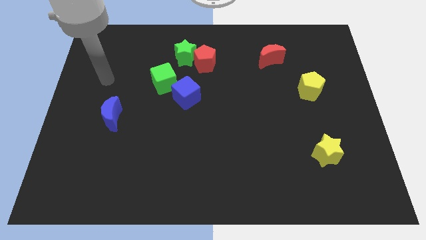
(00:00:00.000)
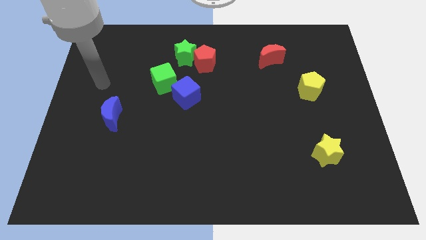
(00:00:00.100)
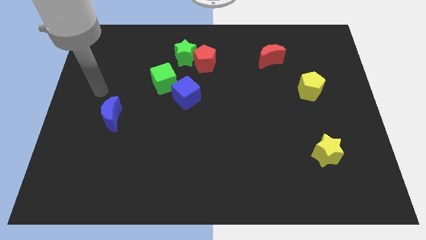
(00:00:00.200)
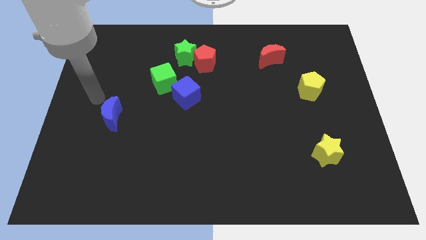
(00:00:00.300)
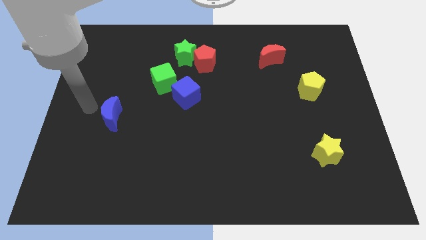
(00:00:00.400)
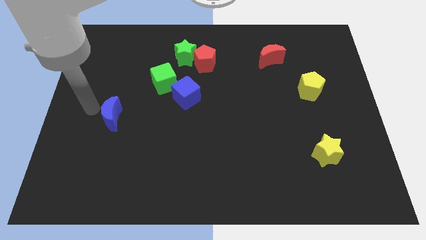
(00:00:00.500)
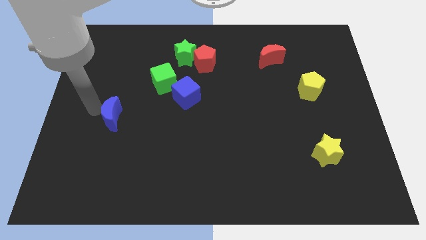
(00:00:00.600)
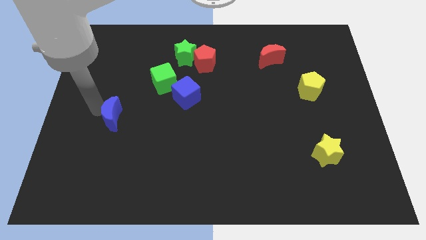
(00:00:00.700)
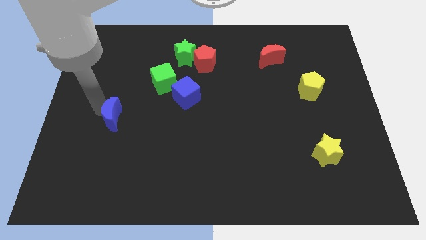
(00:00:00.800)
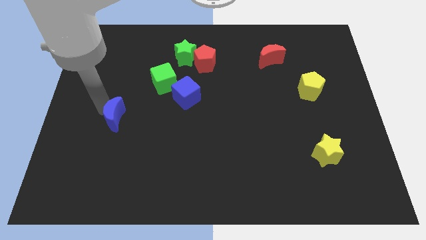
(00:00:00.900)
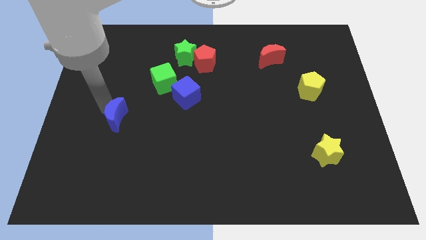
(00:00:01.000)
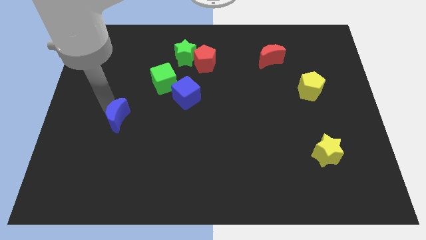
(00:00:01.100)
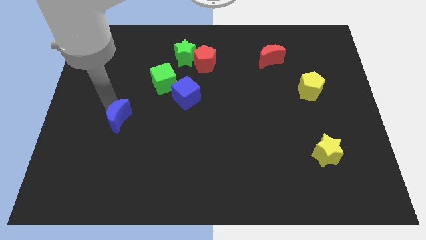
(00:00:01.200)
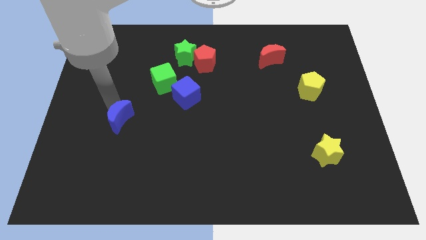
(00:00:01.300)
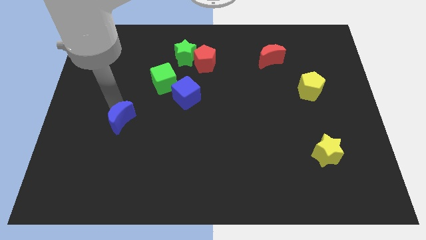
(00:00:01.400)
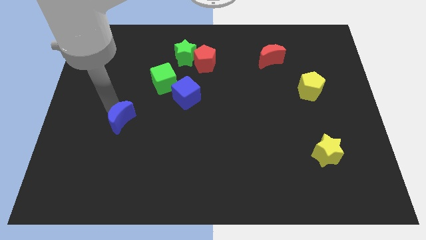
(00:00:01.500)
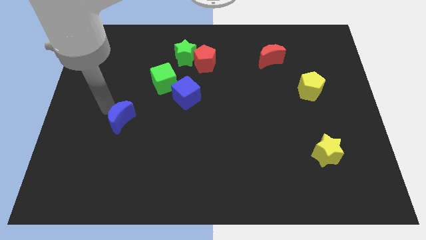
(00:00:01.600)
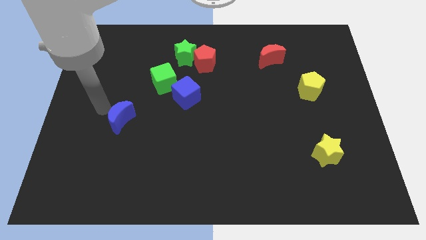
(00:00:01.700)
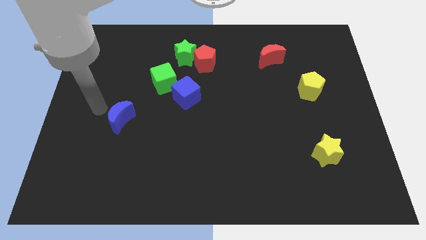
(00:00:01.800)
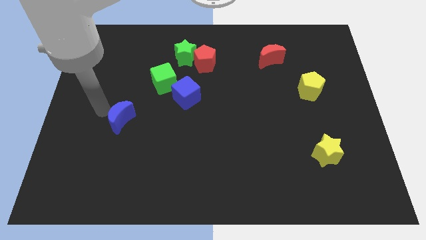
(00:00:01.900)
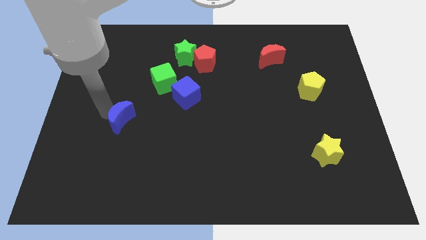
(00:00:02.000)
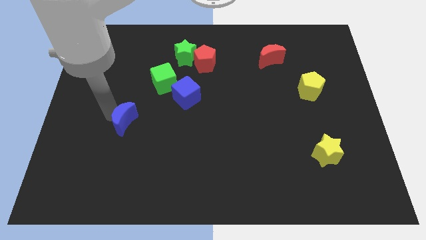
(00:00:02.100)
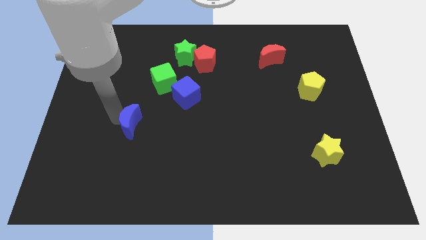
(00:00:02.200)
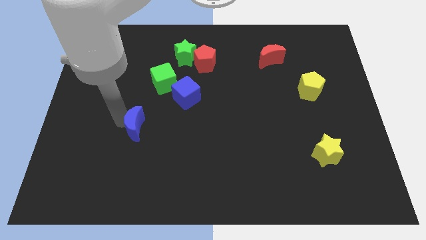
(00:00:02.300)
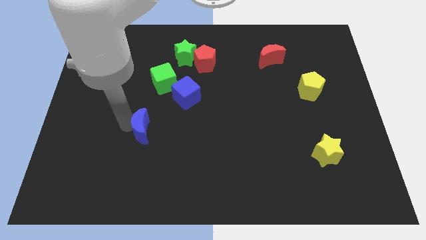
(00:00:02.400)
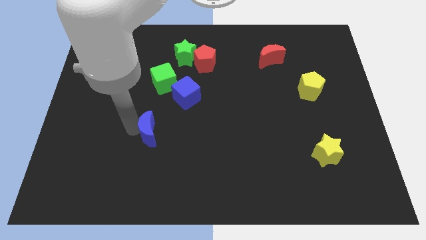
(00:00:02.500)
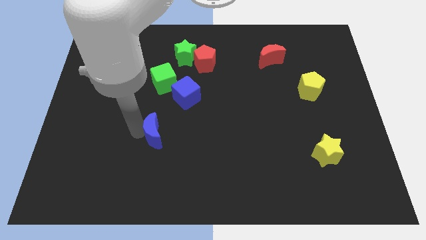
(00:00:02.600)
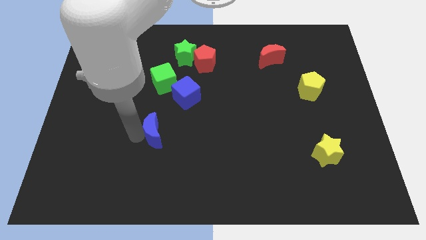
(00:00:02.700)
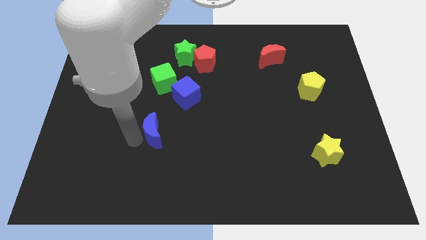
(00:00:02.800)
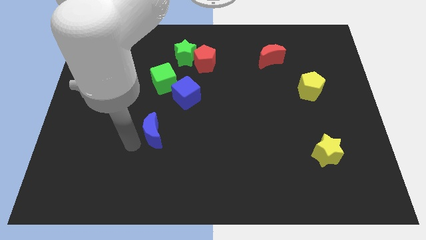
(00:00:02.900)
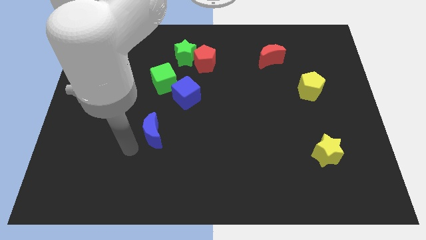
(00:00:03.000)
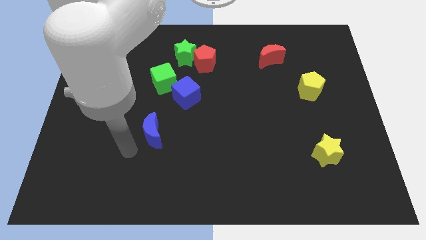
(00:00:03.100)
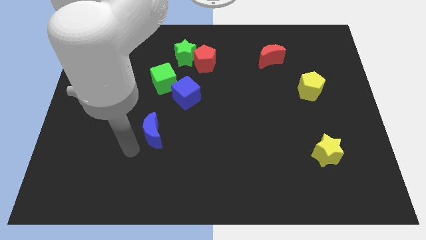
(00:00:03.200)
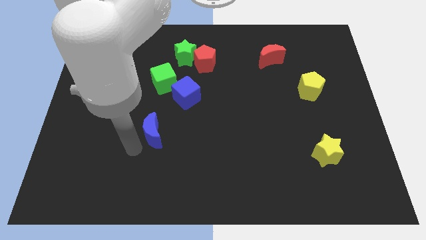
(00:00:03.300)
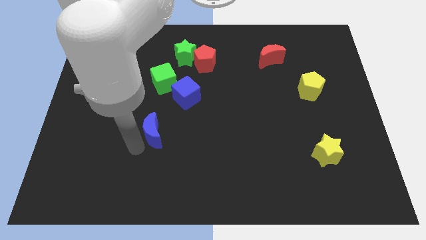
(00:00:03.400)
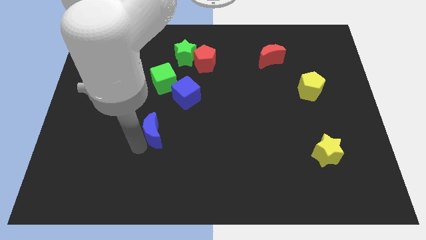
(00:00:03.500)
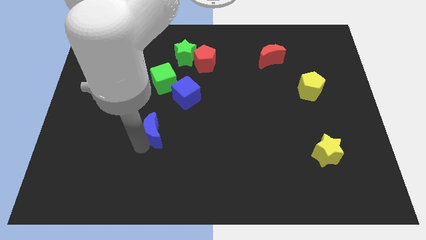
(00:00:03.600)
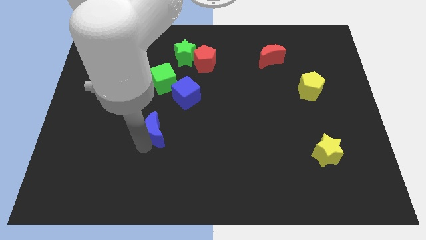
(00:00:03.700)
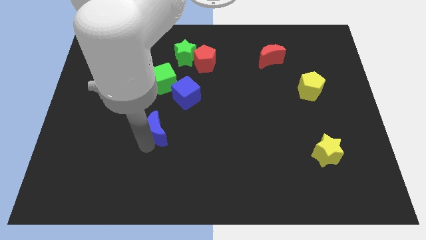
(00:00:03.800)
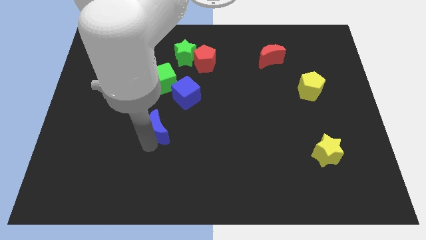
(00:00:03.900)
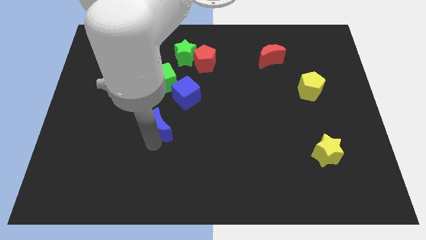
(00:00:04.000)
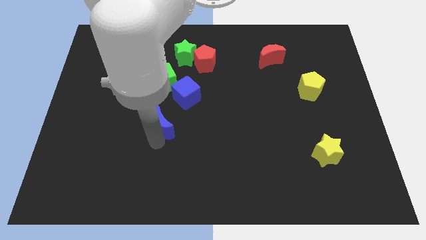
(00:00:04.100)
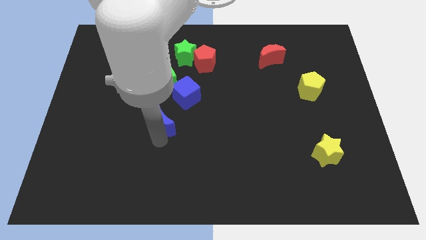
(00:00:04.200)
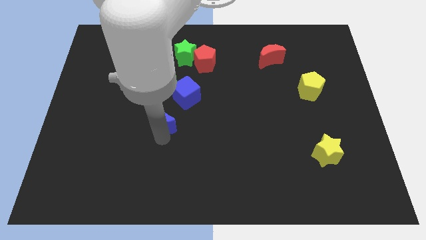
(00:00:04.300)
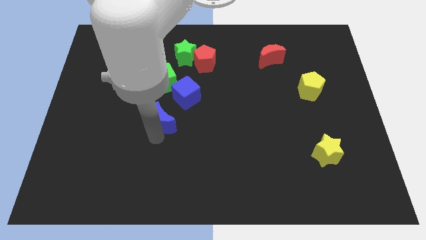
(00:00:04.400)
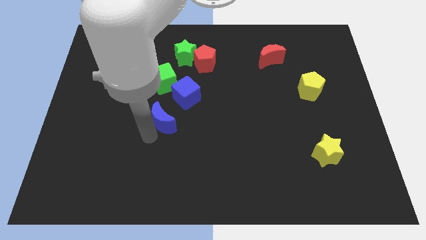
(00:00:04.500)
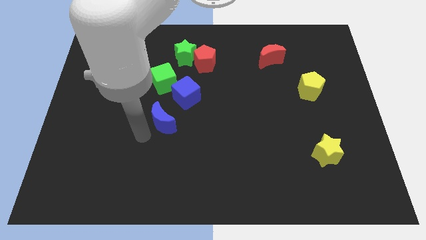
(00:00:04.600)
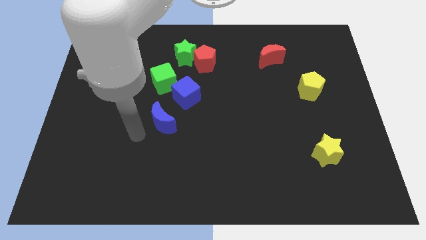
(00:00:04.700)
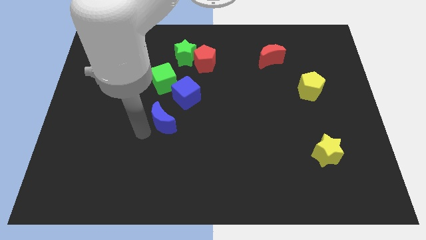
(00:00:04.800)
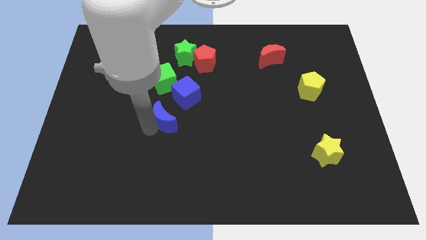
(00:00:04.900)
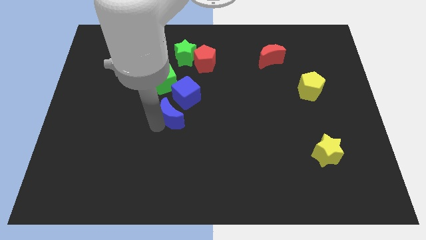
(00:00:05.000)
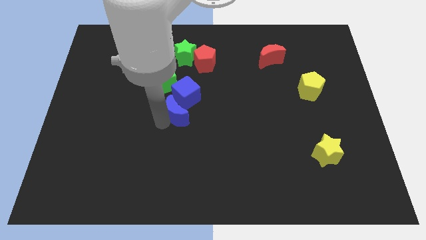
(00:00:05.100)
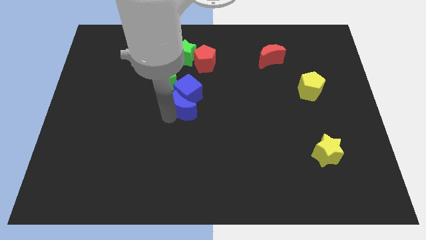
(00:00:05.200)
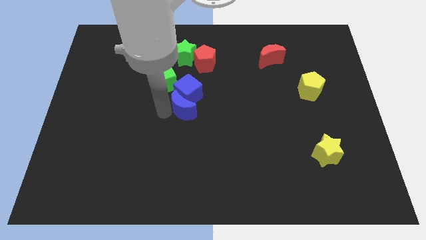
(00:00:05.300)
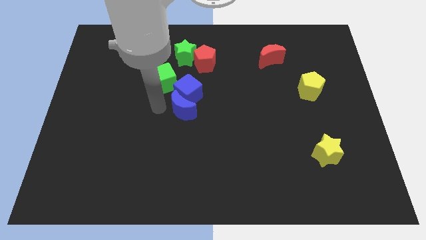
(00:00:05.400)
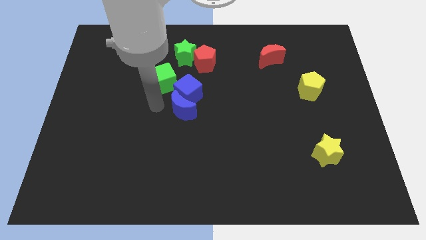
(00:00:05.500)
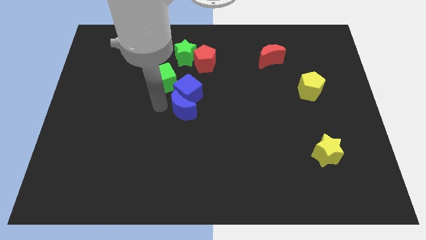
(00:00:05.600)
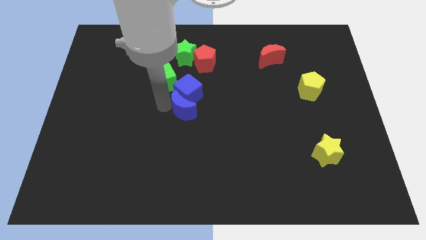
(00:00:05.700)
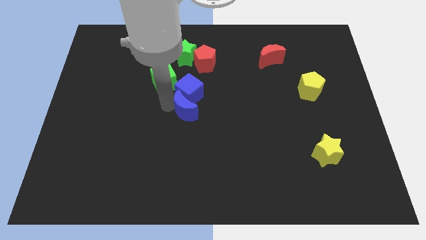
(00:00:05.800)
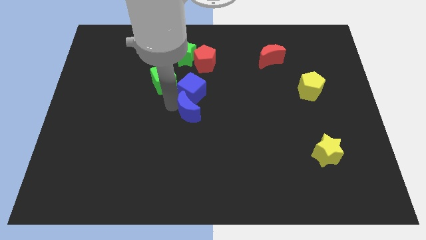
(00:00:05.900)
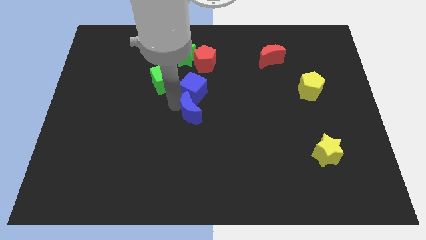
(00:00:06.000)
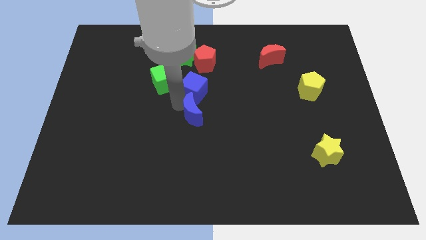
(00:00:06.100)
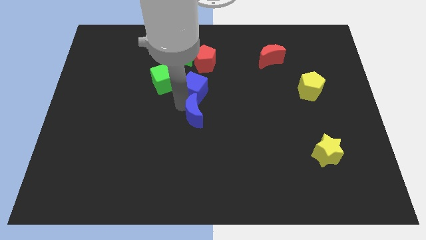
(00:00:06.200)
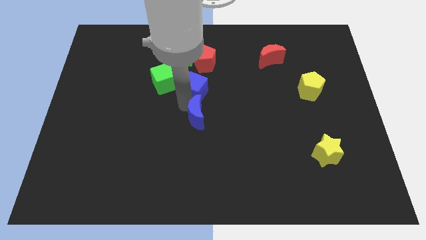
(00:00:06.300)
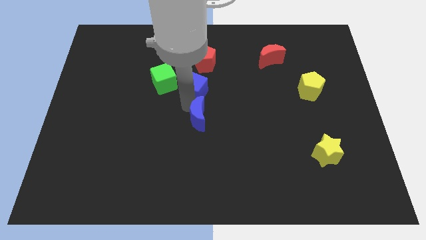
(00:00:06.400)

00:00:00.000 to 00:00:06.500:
slide the blue moon to the right

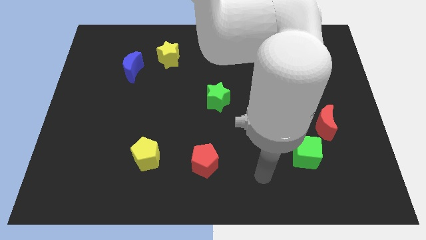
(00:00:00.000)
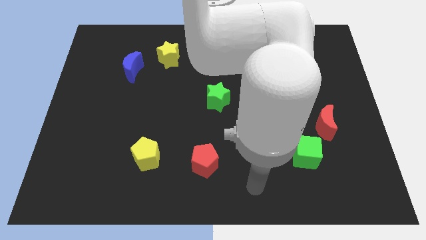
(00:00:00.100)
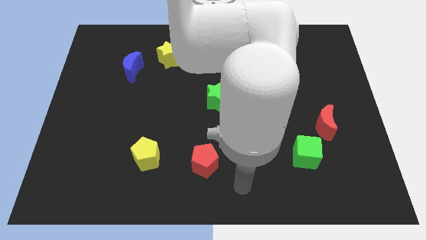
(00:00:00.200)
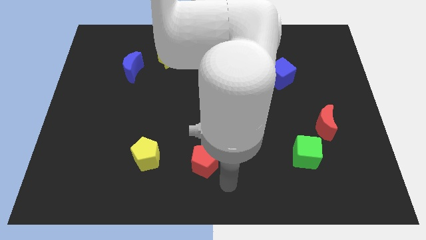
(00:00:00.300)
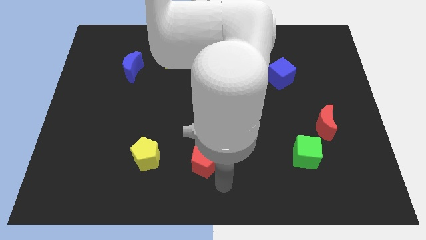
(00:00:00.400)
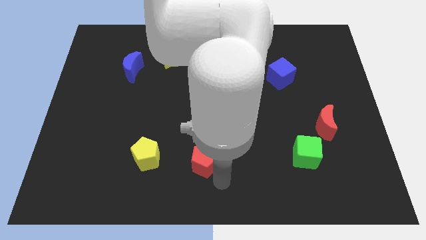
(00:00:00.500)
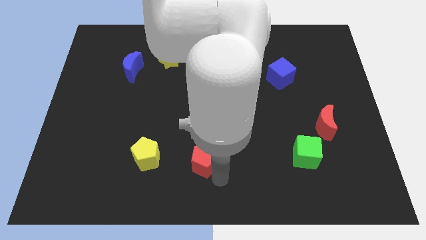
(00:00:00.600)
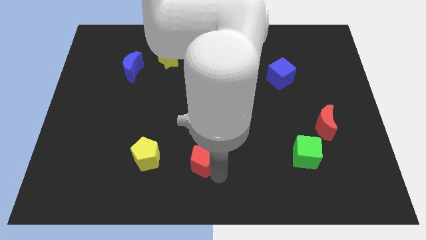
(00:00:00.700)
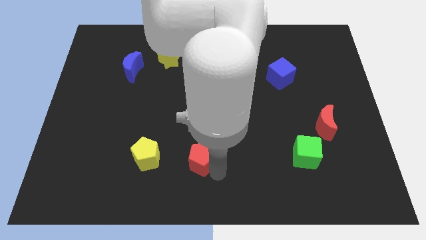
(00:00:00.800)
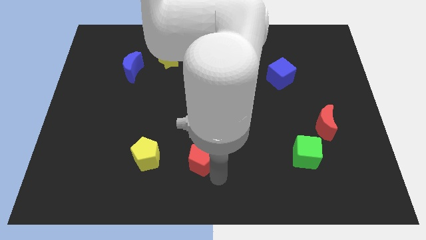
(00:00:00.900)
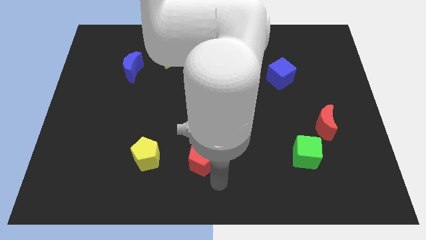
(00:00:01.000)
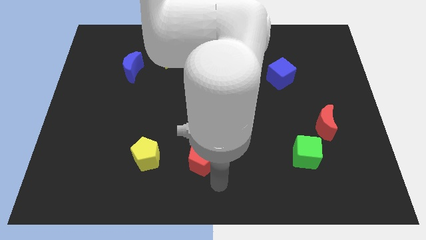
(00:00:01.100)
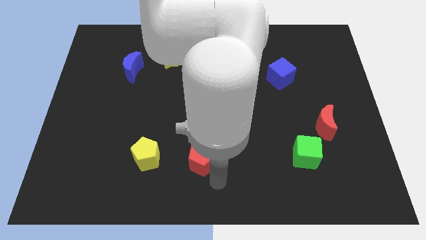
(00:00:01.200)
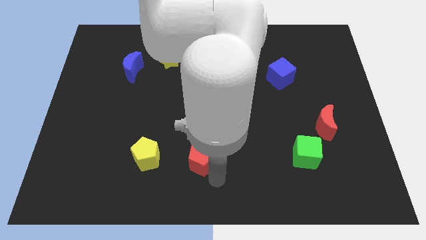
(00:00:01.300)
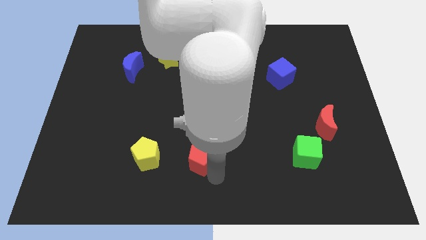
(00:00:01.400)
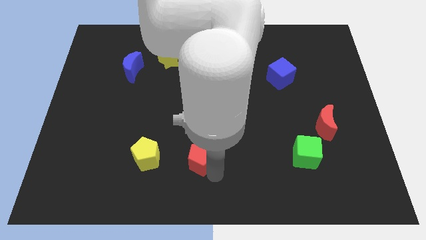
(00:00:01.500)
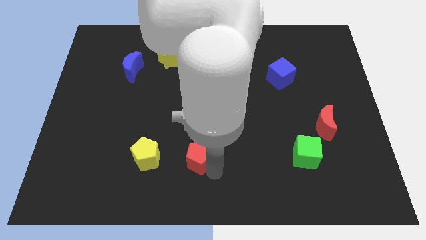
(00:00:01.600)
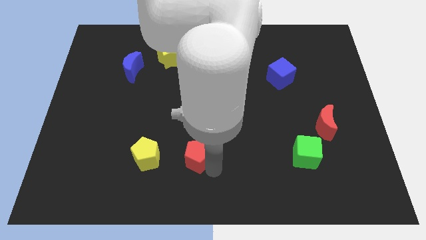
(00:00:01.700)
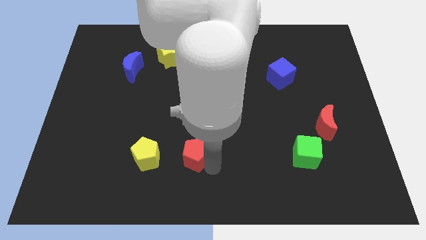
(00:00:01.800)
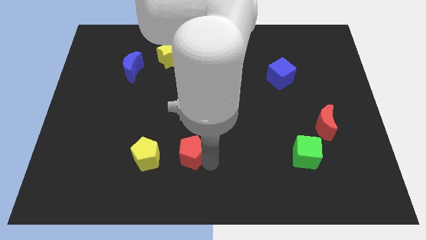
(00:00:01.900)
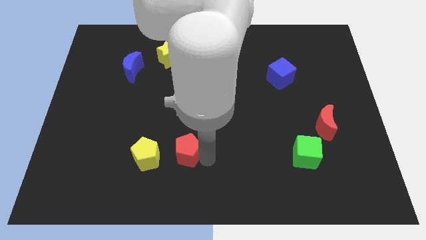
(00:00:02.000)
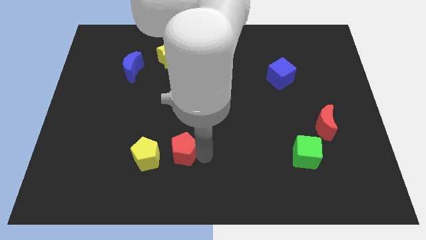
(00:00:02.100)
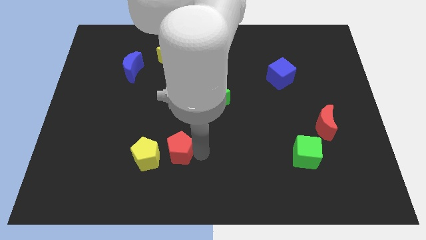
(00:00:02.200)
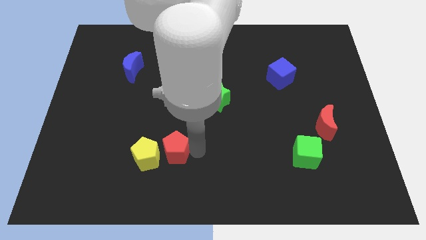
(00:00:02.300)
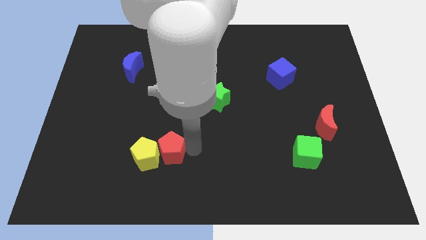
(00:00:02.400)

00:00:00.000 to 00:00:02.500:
push the red pentagon up and left somewhat
